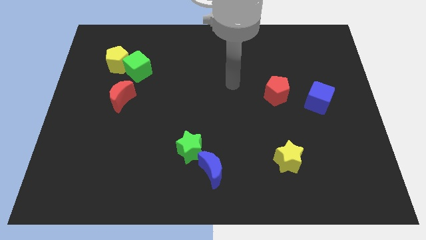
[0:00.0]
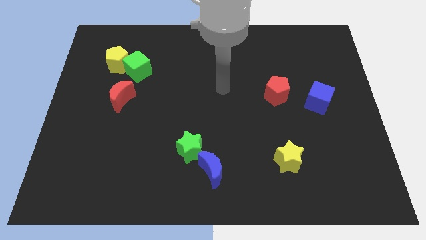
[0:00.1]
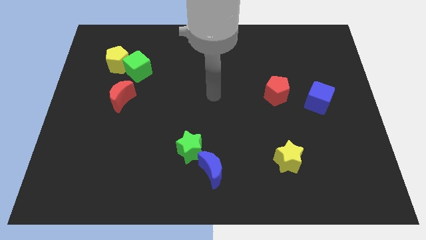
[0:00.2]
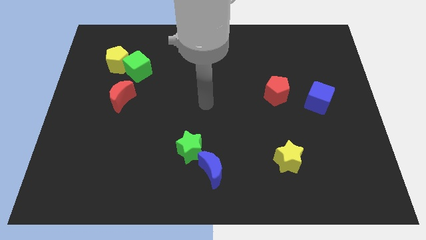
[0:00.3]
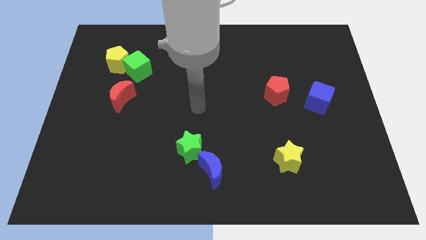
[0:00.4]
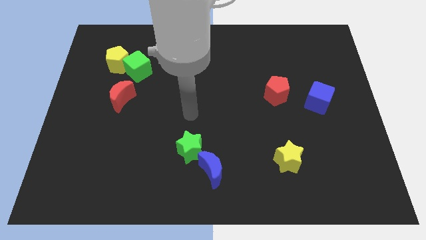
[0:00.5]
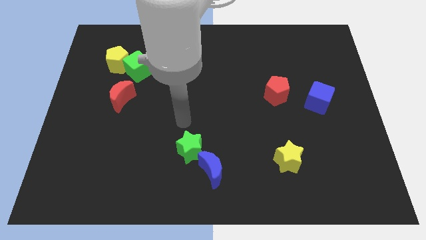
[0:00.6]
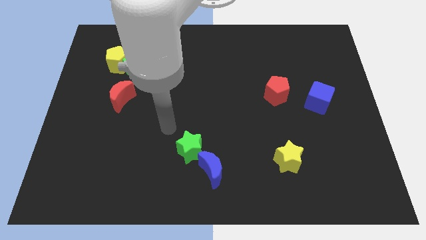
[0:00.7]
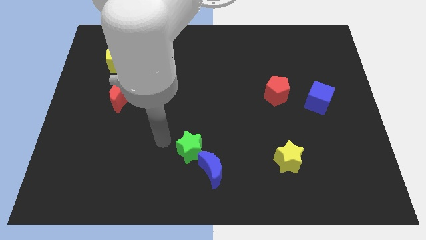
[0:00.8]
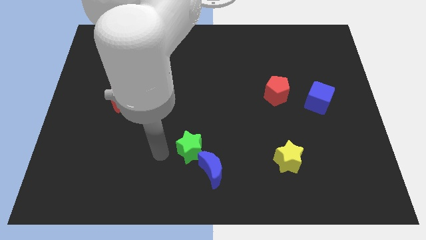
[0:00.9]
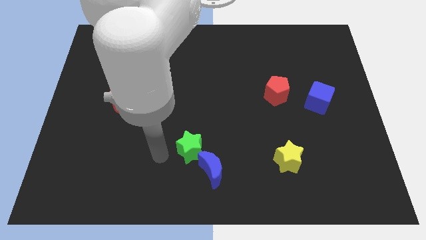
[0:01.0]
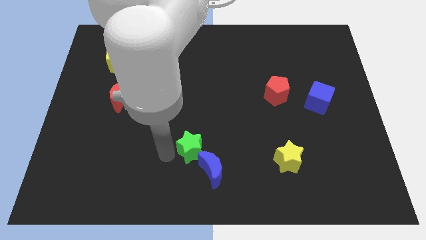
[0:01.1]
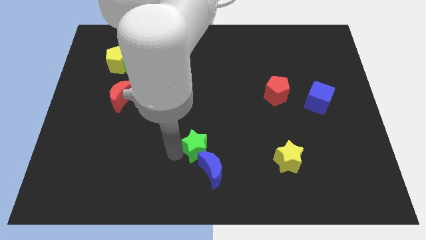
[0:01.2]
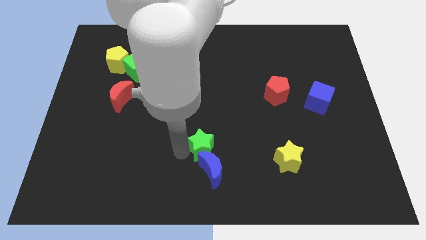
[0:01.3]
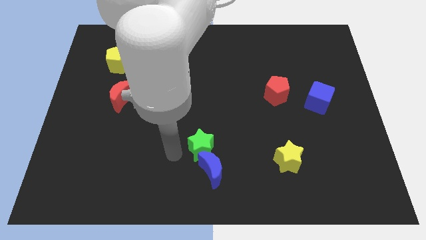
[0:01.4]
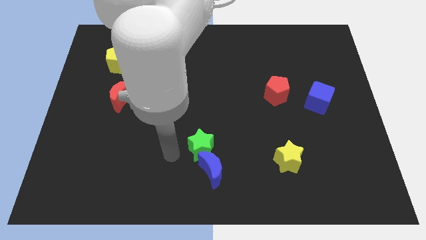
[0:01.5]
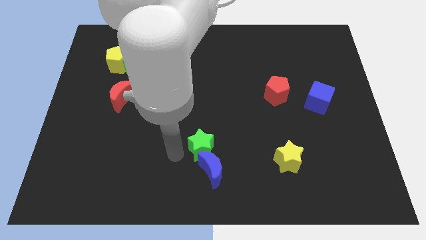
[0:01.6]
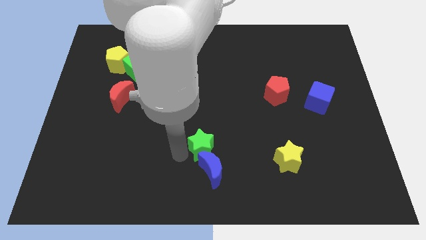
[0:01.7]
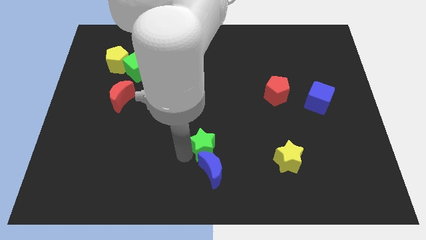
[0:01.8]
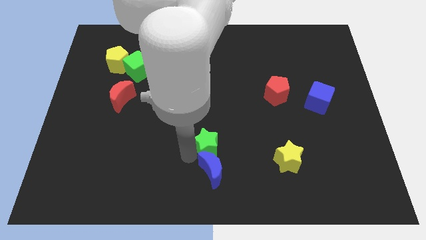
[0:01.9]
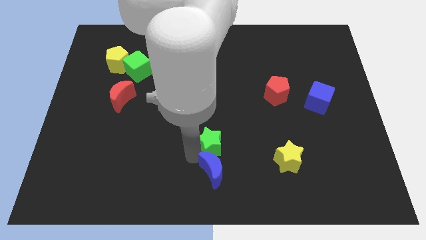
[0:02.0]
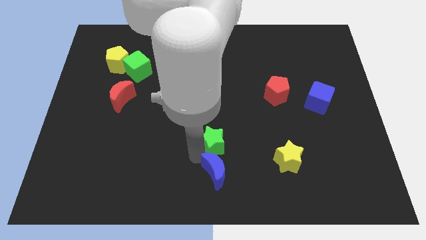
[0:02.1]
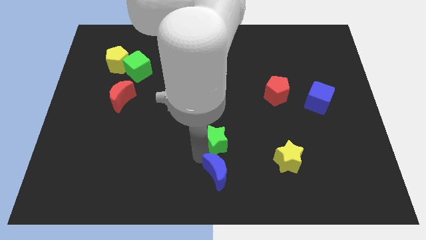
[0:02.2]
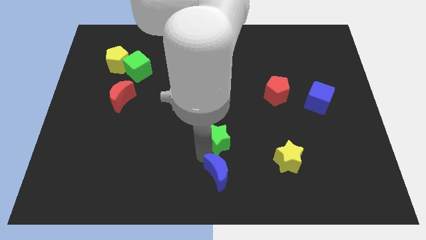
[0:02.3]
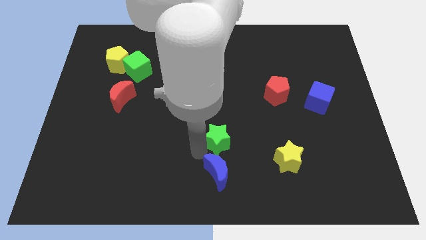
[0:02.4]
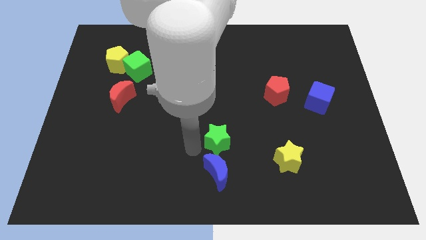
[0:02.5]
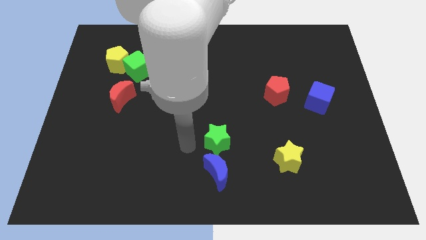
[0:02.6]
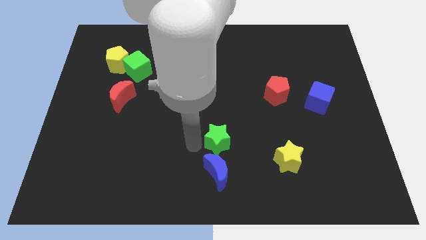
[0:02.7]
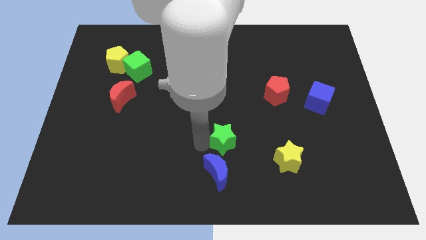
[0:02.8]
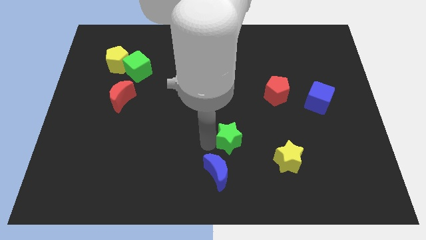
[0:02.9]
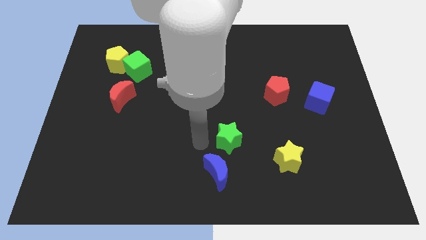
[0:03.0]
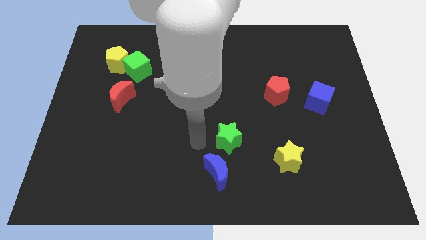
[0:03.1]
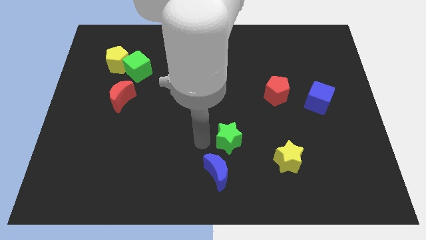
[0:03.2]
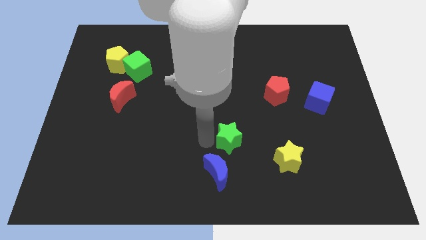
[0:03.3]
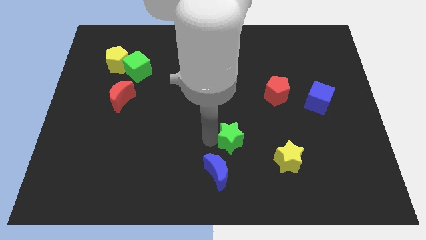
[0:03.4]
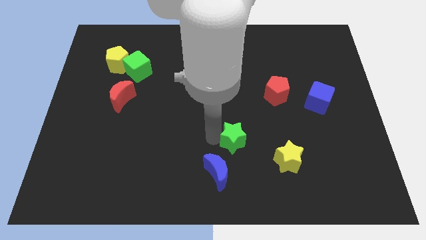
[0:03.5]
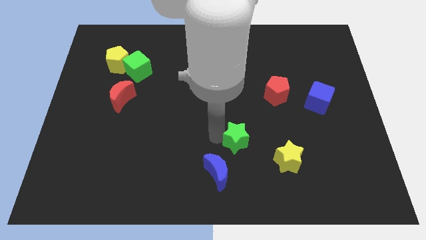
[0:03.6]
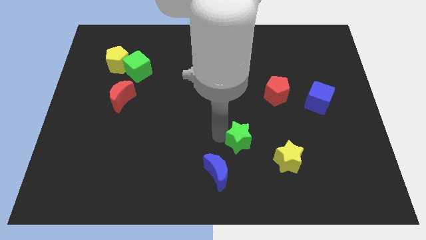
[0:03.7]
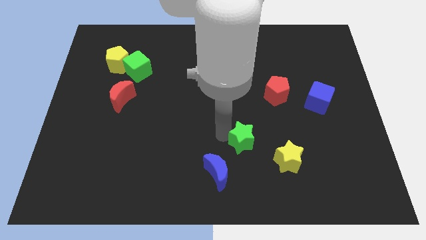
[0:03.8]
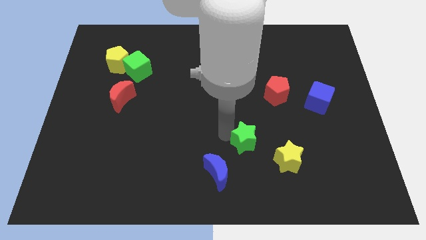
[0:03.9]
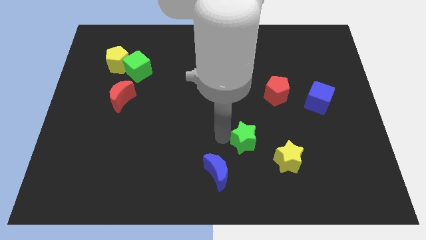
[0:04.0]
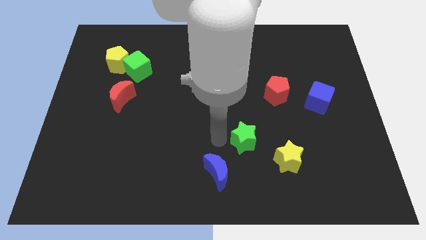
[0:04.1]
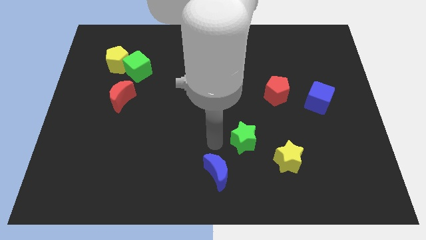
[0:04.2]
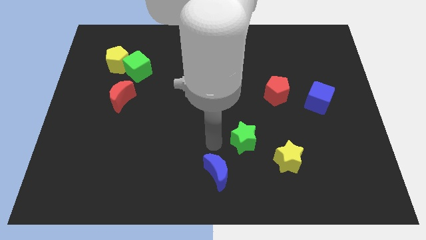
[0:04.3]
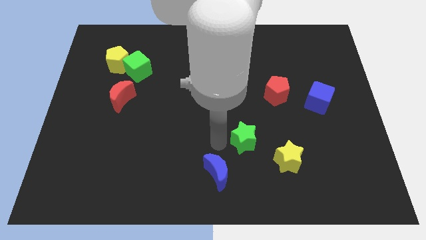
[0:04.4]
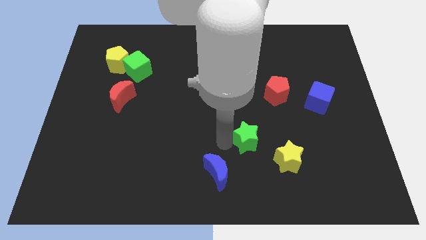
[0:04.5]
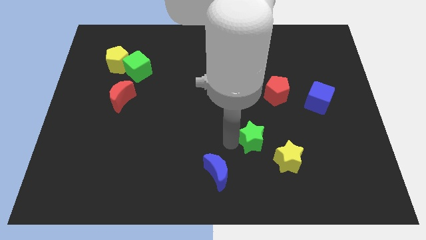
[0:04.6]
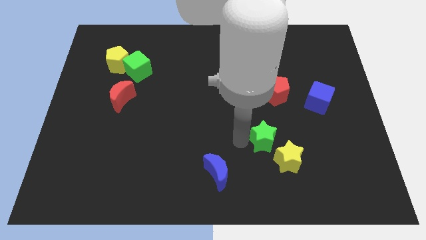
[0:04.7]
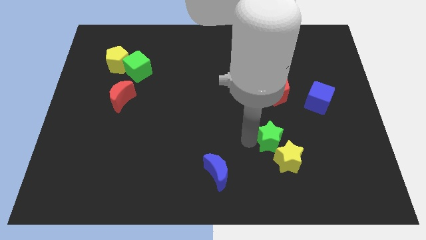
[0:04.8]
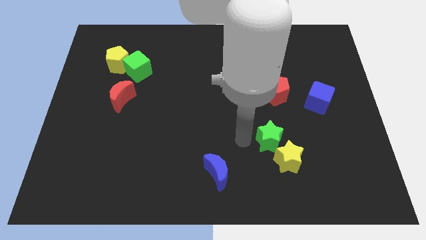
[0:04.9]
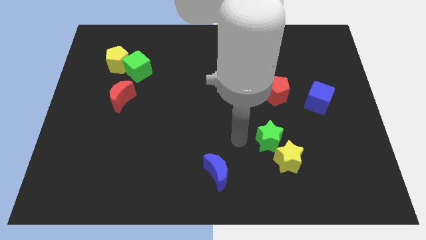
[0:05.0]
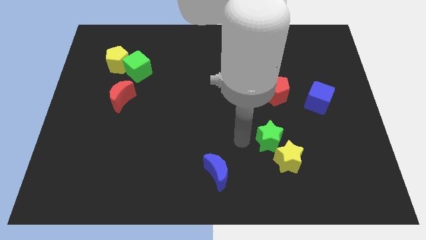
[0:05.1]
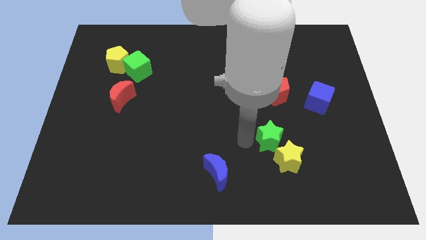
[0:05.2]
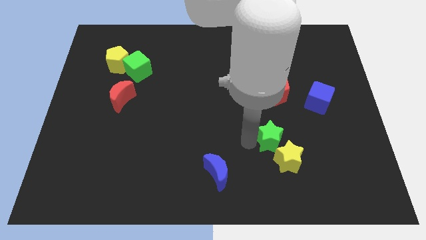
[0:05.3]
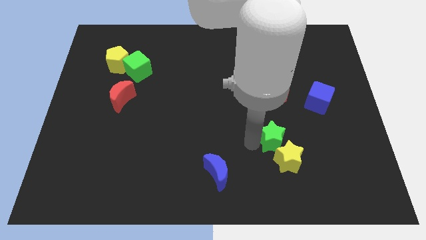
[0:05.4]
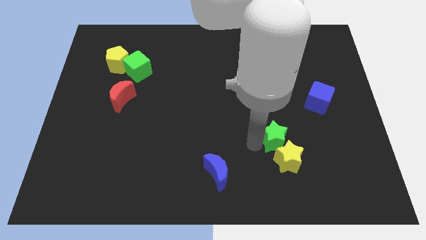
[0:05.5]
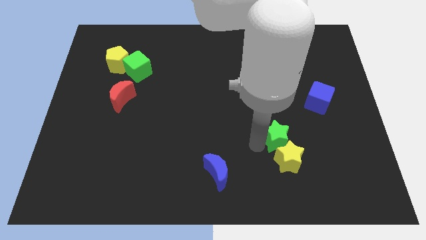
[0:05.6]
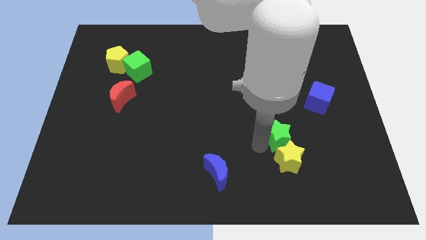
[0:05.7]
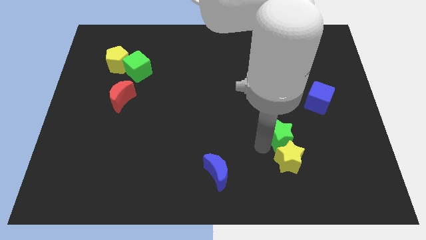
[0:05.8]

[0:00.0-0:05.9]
move the green star to the top right side of the yellow star

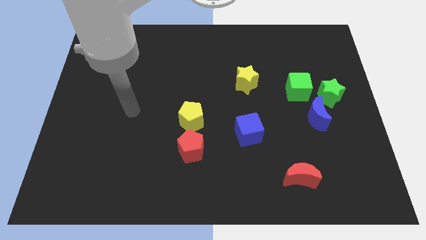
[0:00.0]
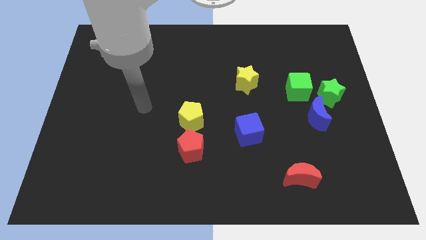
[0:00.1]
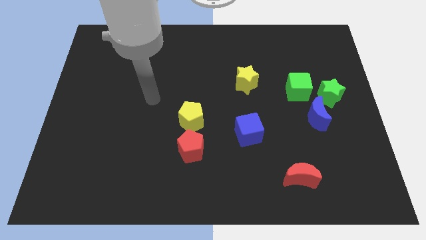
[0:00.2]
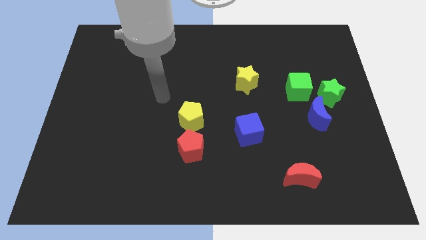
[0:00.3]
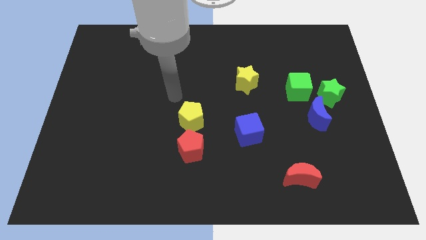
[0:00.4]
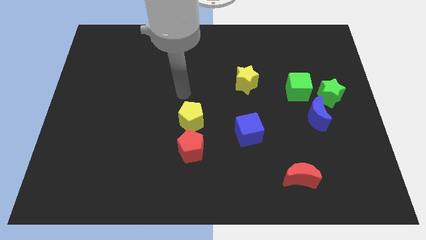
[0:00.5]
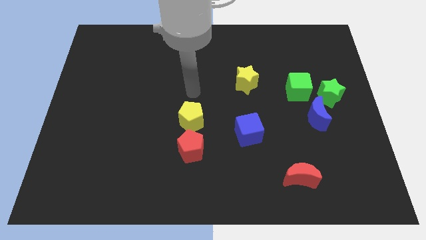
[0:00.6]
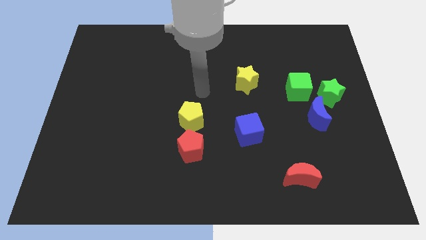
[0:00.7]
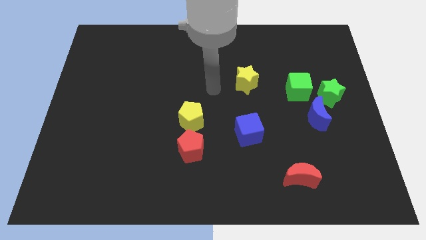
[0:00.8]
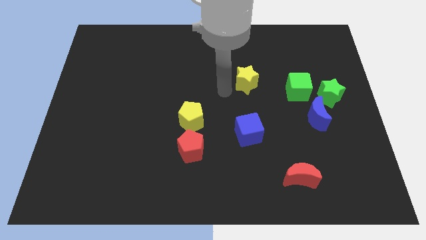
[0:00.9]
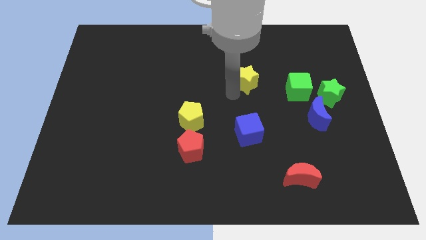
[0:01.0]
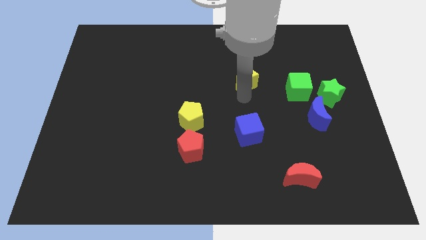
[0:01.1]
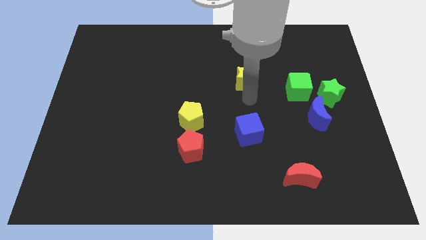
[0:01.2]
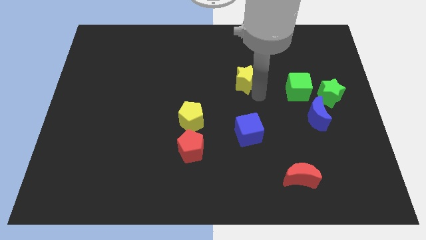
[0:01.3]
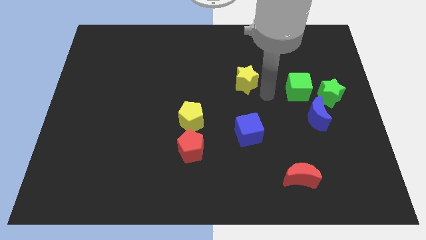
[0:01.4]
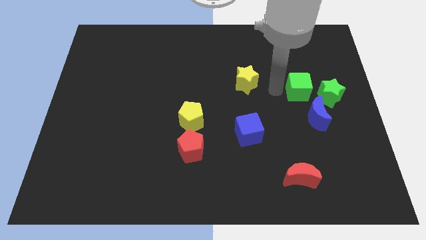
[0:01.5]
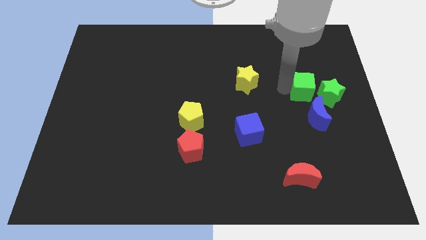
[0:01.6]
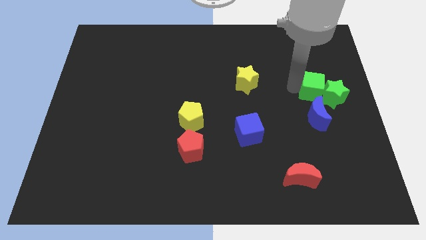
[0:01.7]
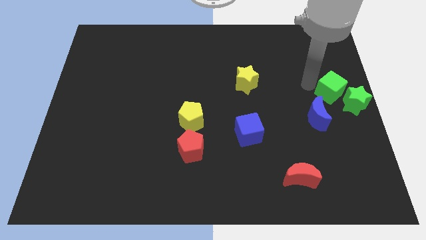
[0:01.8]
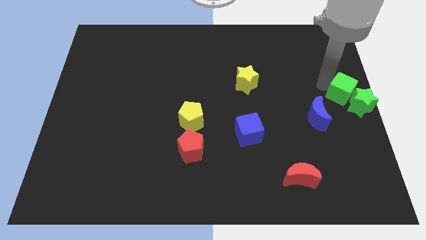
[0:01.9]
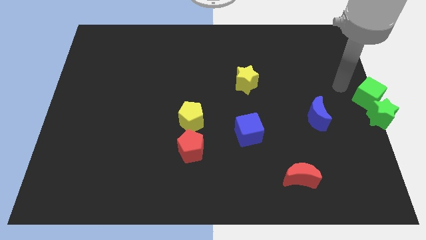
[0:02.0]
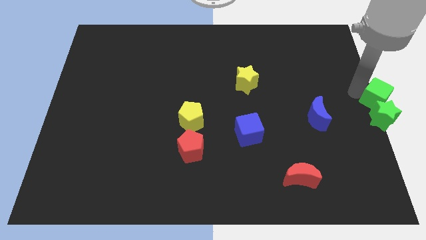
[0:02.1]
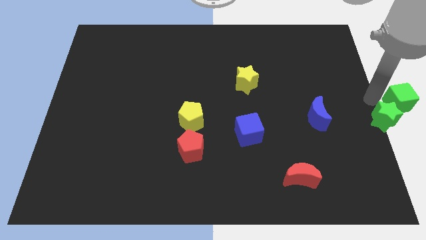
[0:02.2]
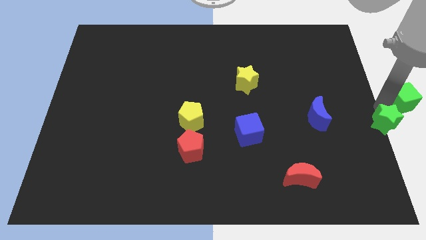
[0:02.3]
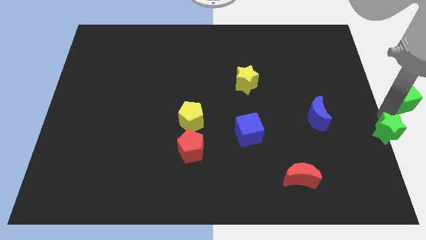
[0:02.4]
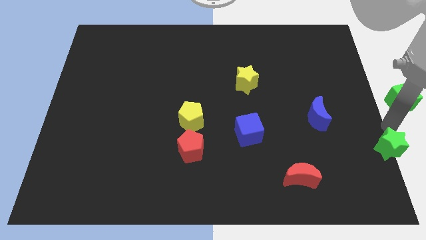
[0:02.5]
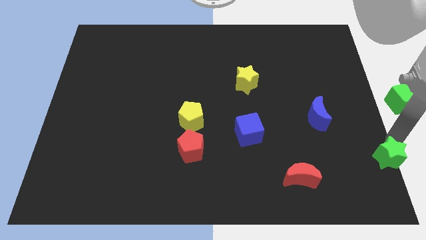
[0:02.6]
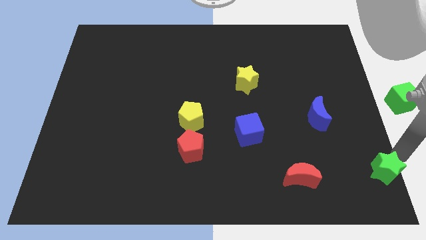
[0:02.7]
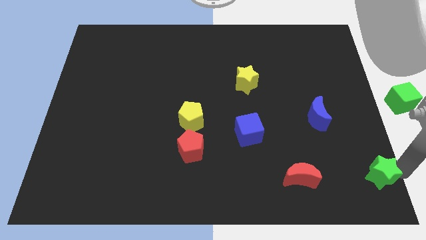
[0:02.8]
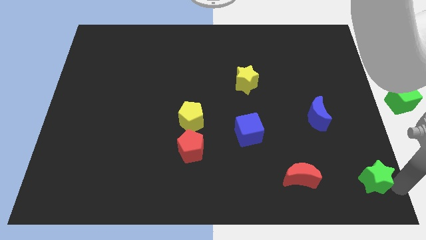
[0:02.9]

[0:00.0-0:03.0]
slide the green star just right of the red moon
